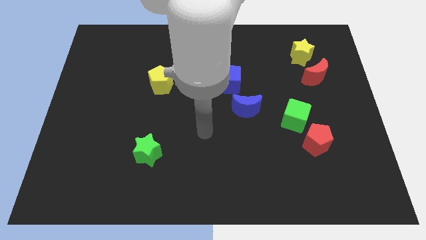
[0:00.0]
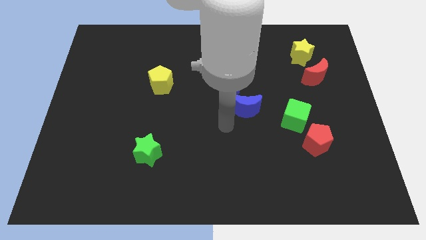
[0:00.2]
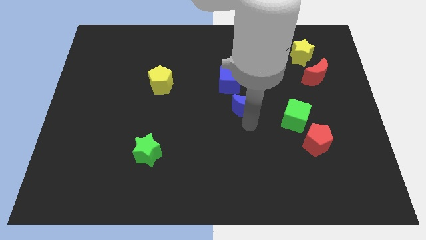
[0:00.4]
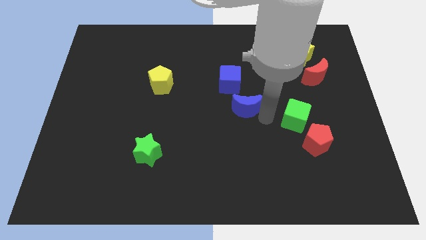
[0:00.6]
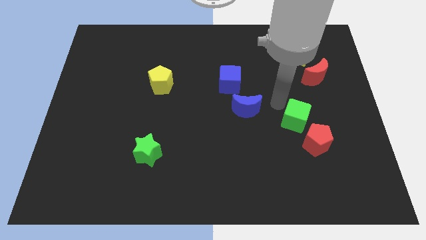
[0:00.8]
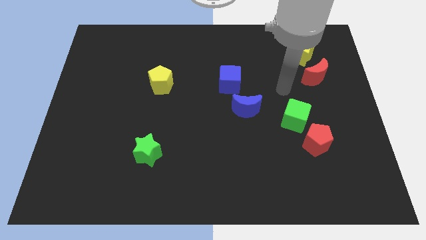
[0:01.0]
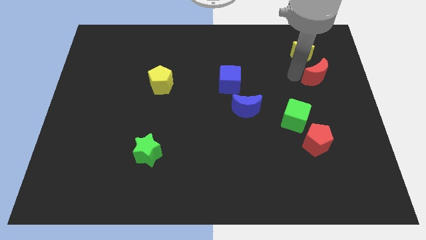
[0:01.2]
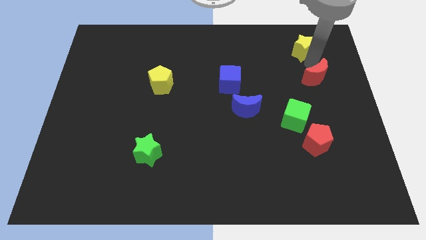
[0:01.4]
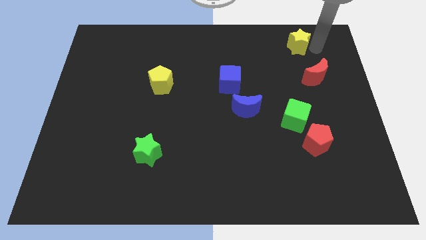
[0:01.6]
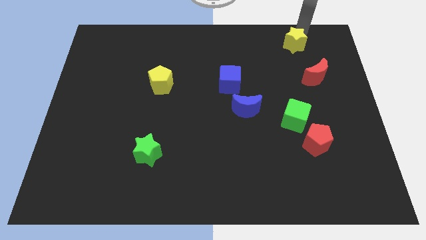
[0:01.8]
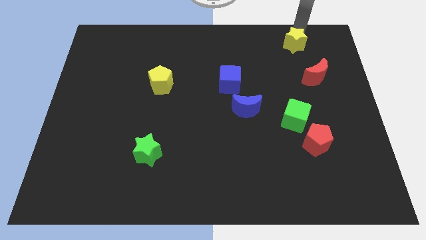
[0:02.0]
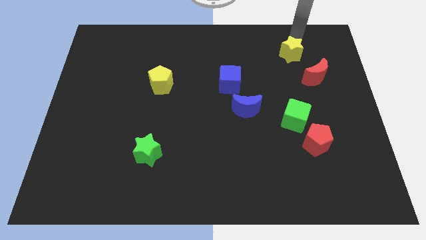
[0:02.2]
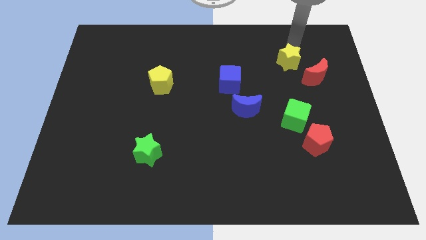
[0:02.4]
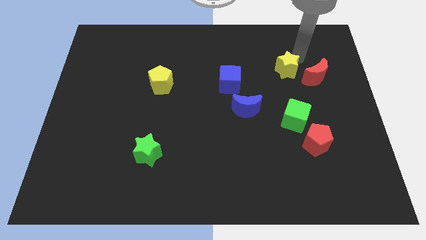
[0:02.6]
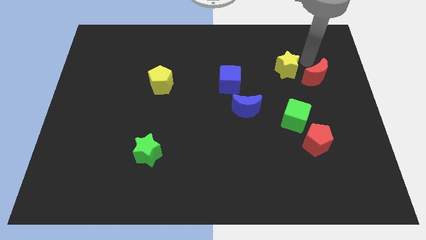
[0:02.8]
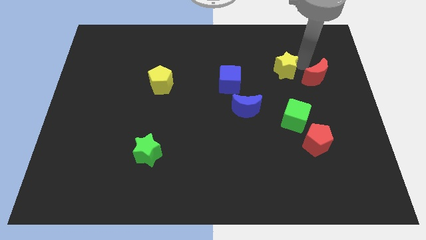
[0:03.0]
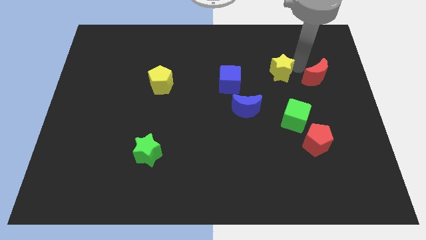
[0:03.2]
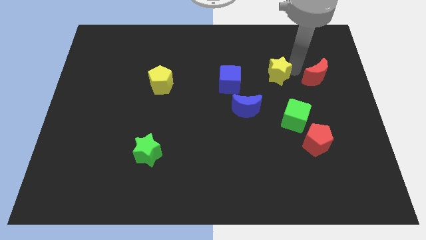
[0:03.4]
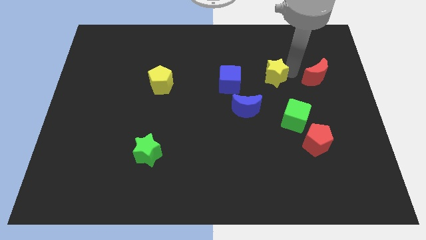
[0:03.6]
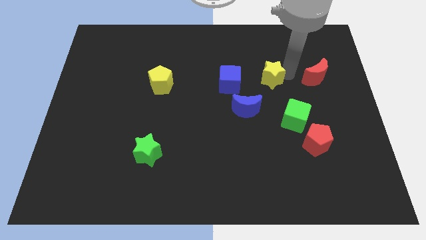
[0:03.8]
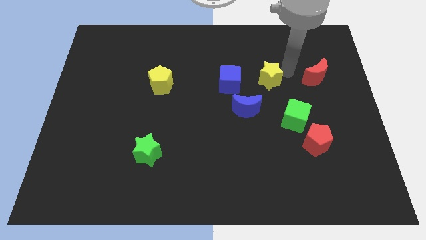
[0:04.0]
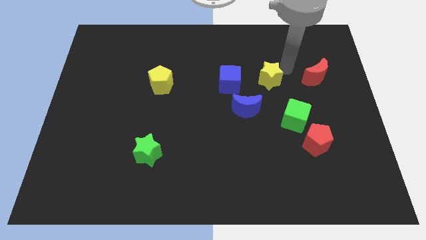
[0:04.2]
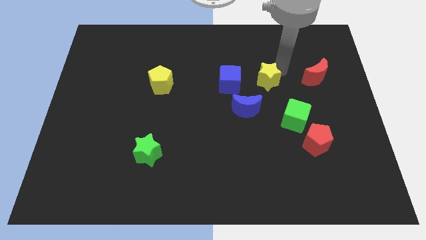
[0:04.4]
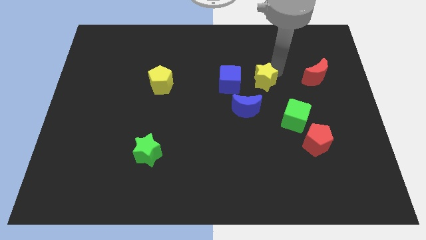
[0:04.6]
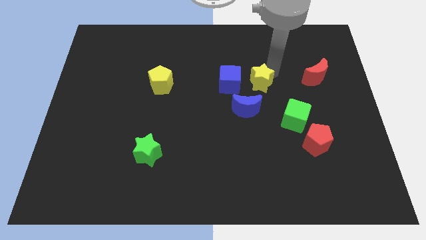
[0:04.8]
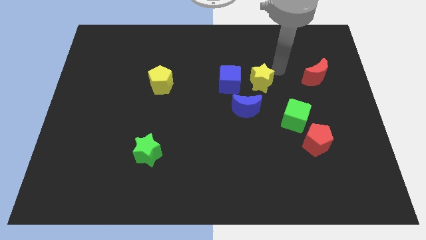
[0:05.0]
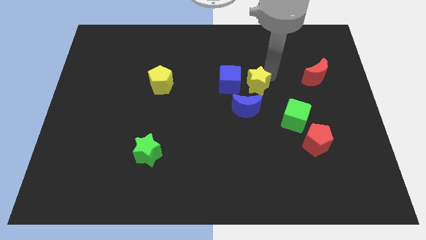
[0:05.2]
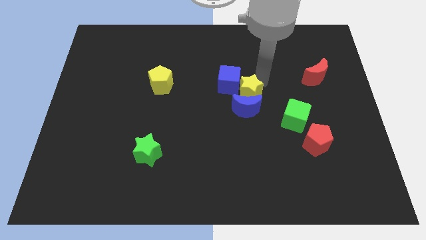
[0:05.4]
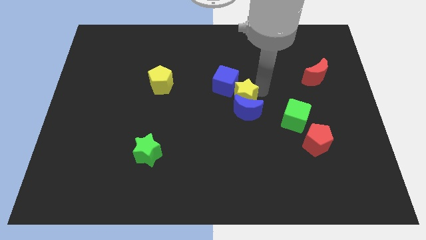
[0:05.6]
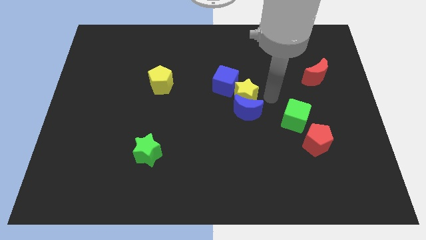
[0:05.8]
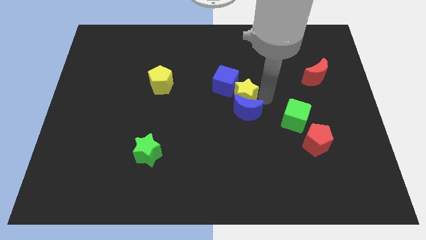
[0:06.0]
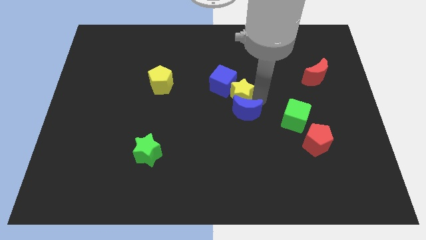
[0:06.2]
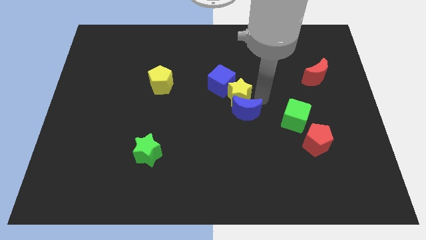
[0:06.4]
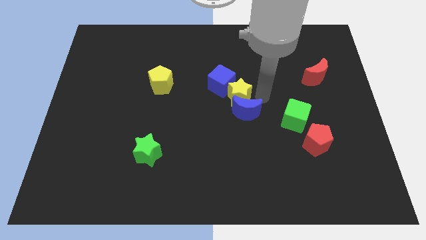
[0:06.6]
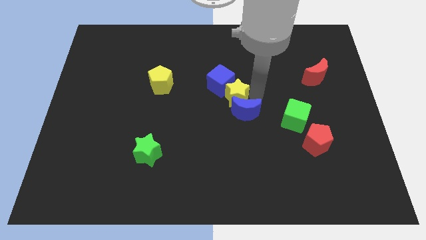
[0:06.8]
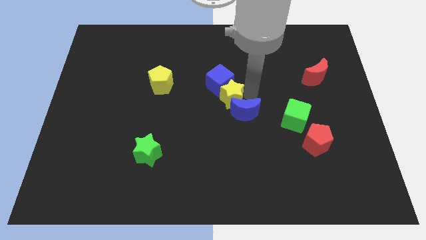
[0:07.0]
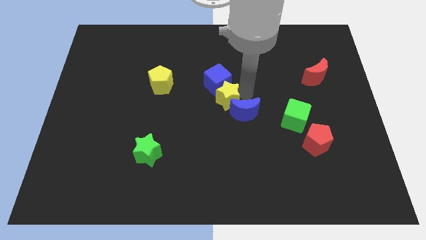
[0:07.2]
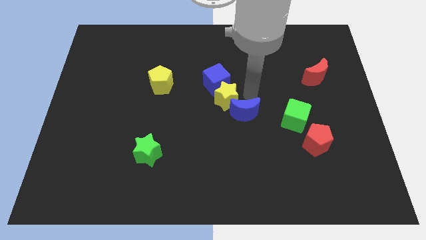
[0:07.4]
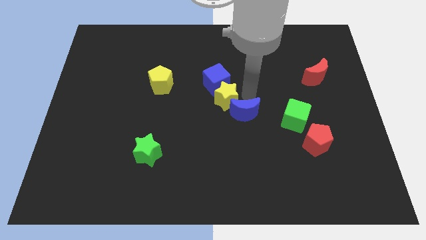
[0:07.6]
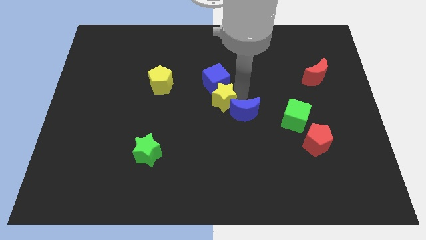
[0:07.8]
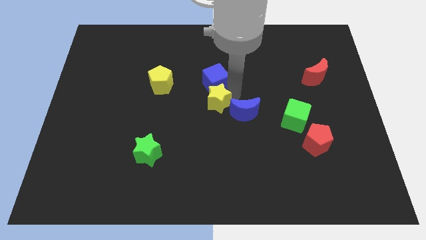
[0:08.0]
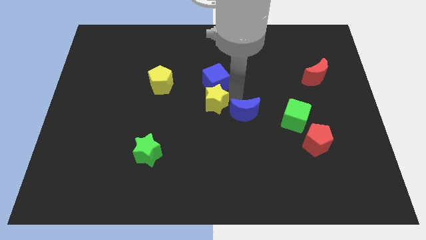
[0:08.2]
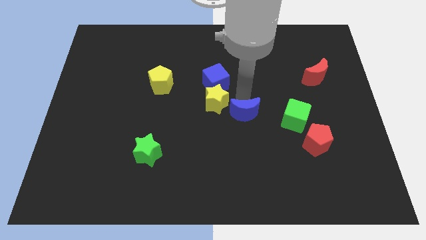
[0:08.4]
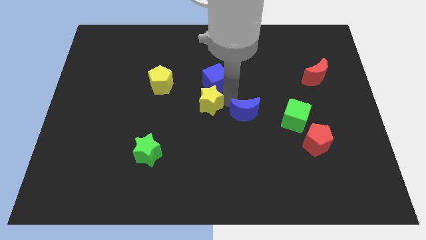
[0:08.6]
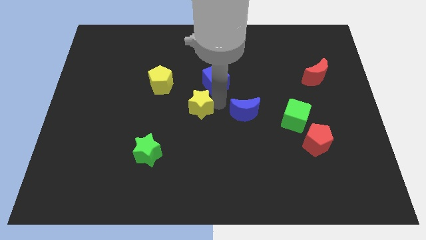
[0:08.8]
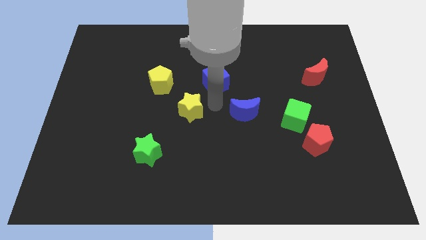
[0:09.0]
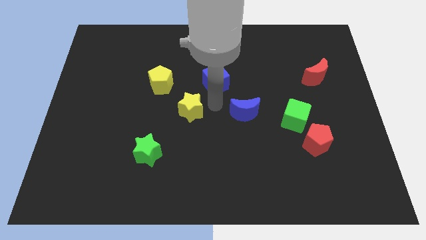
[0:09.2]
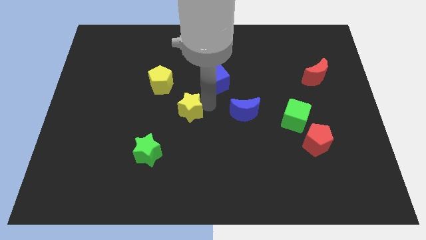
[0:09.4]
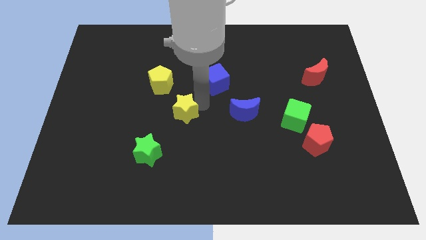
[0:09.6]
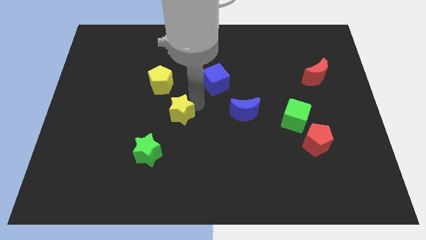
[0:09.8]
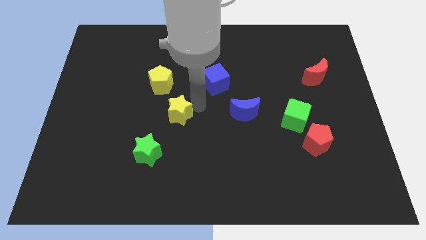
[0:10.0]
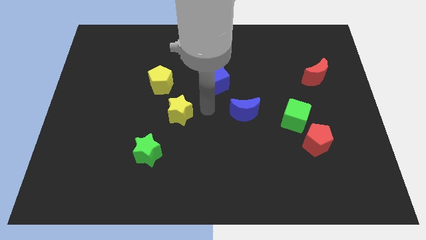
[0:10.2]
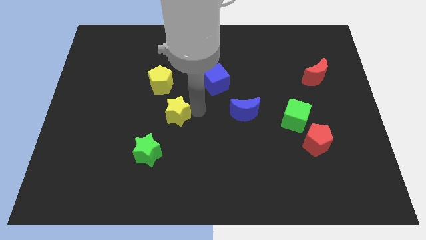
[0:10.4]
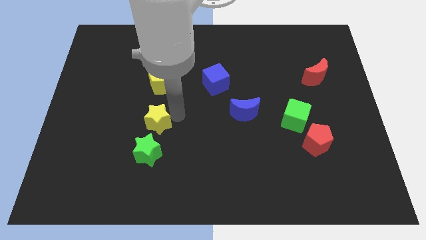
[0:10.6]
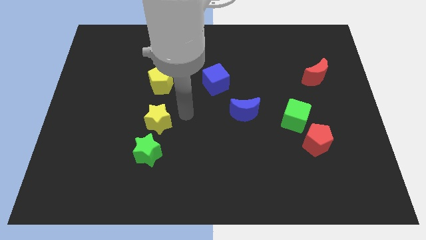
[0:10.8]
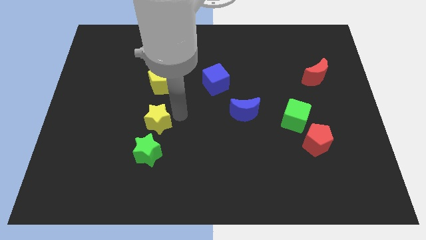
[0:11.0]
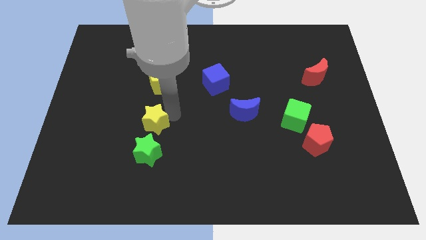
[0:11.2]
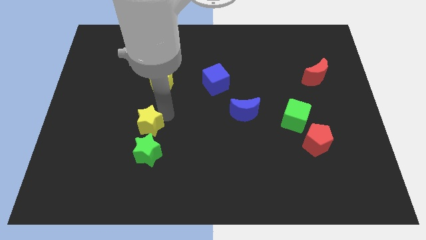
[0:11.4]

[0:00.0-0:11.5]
slide the yellow star to the top left of the green star

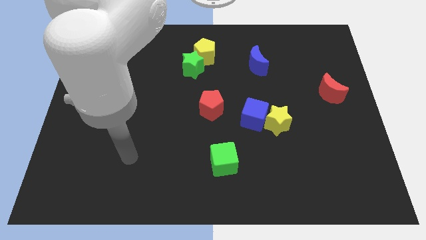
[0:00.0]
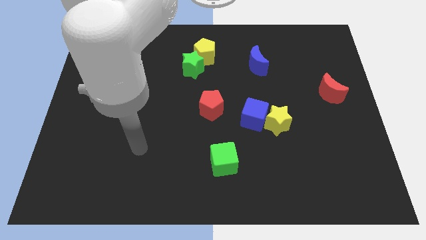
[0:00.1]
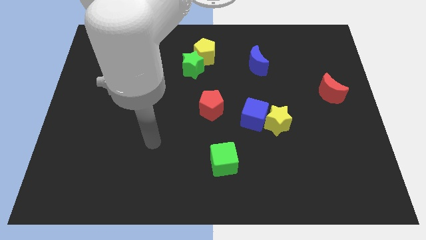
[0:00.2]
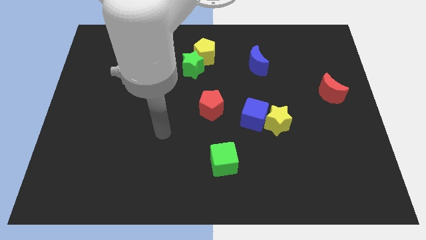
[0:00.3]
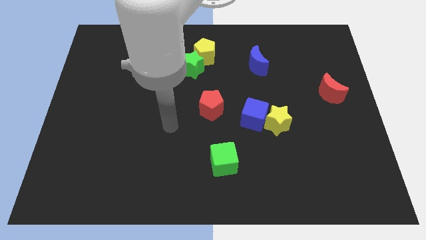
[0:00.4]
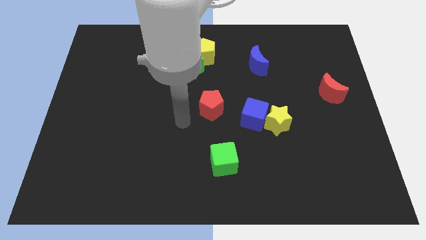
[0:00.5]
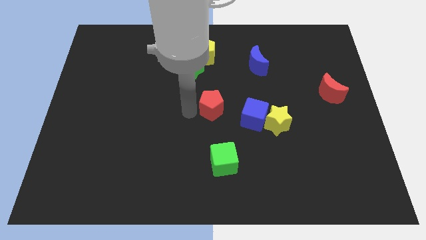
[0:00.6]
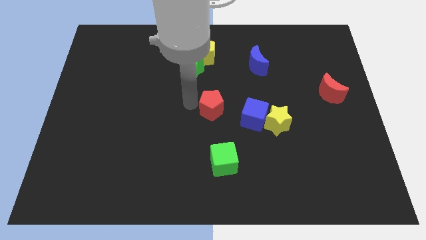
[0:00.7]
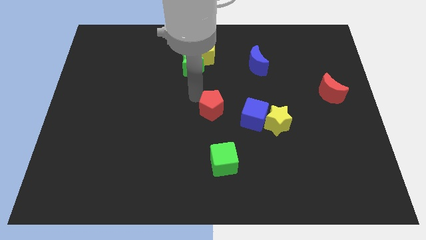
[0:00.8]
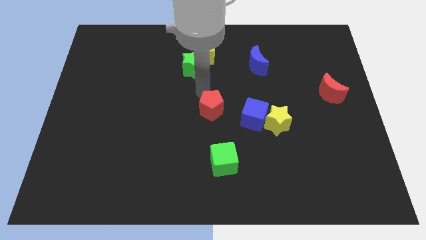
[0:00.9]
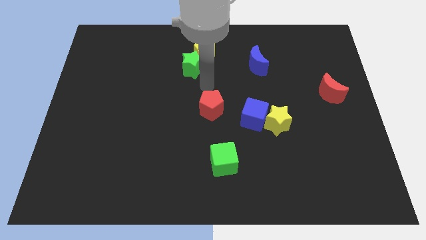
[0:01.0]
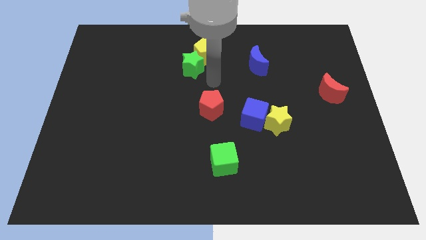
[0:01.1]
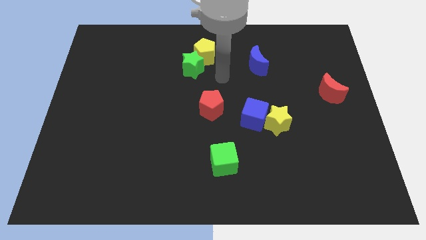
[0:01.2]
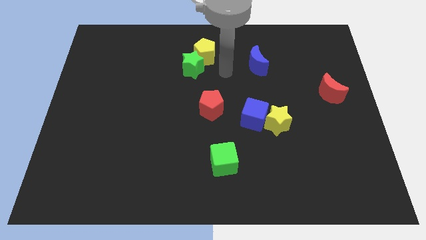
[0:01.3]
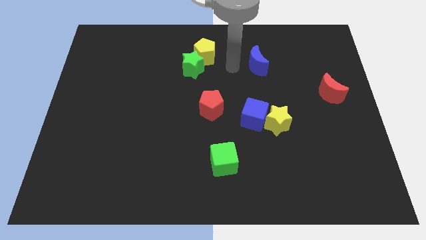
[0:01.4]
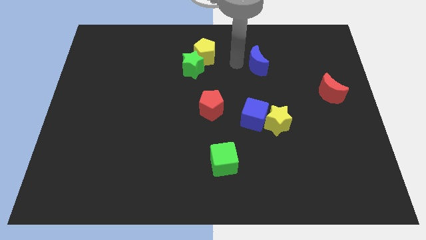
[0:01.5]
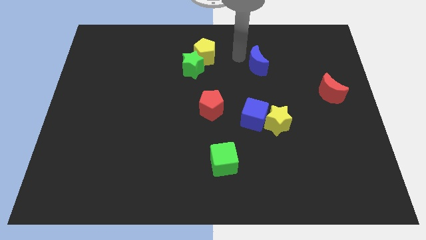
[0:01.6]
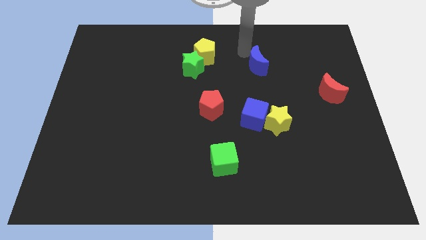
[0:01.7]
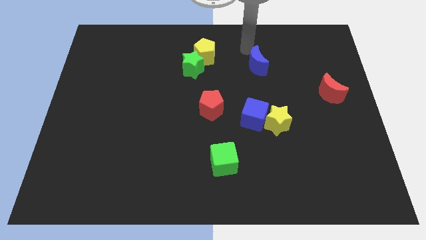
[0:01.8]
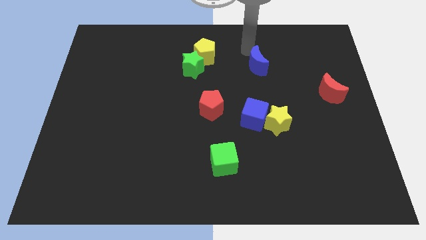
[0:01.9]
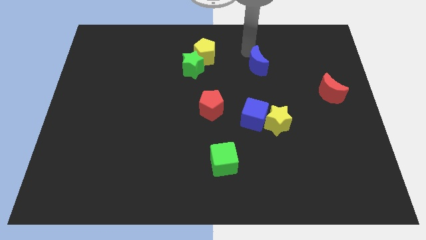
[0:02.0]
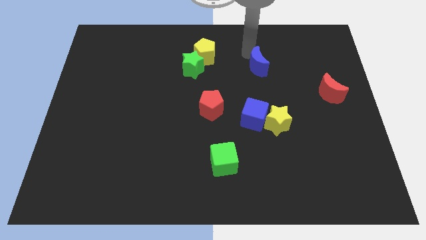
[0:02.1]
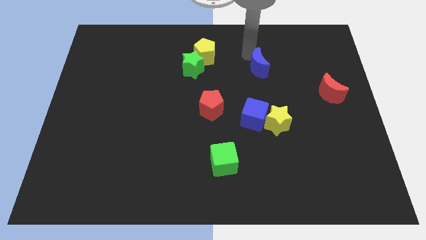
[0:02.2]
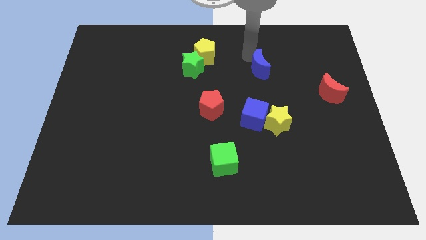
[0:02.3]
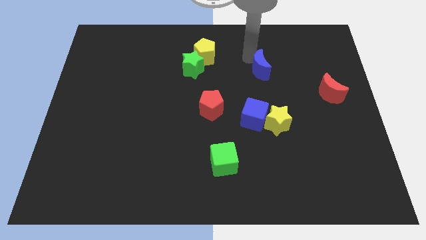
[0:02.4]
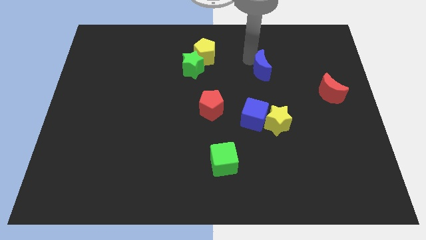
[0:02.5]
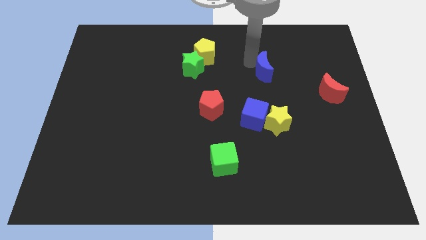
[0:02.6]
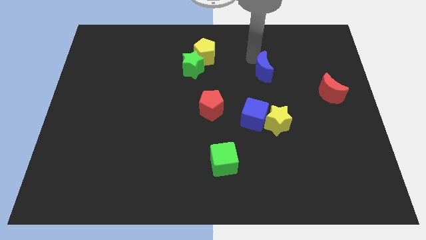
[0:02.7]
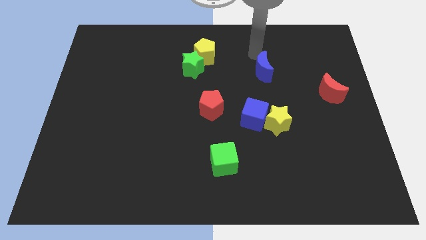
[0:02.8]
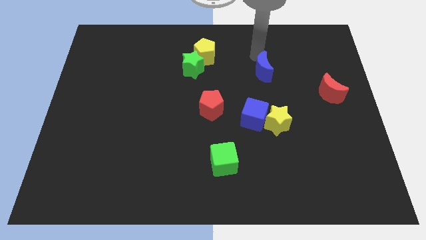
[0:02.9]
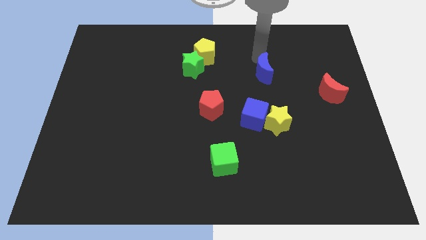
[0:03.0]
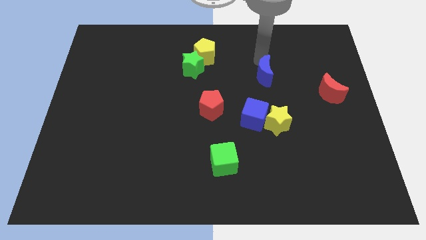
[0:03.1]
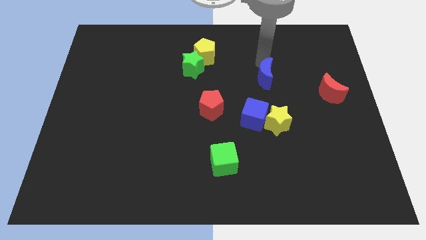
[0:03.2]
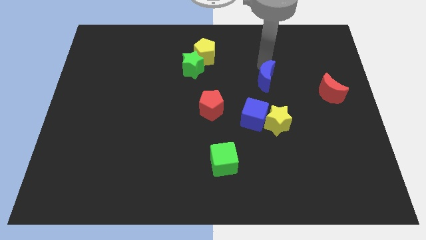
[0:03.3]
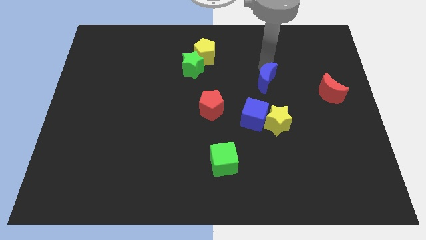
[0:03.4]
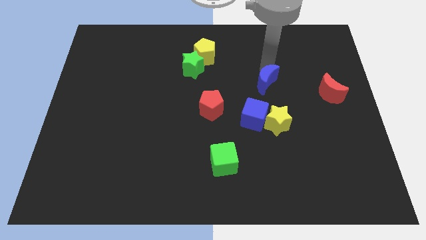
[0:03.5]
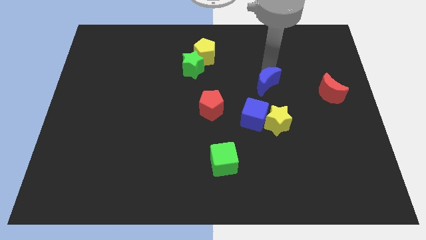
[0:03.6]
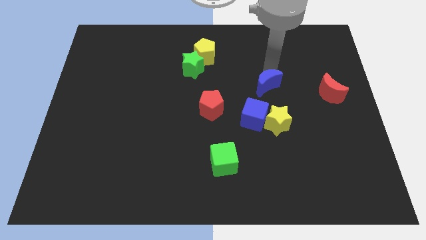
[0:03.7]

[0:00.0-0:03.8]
move the blue moon diagonally up and to the right of the blue cube
